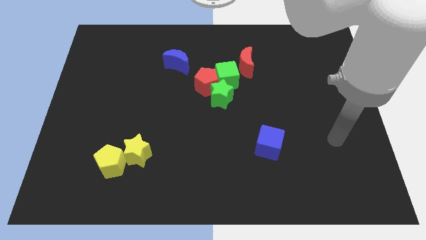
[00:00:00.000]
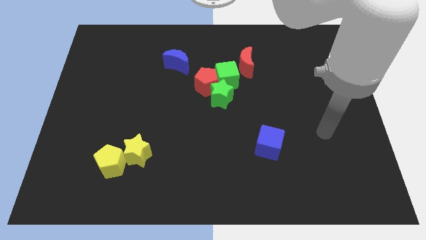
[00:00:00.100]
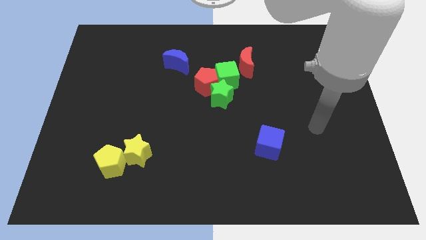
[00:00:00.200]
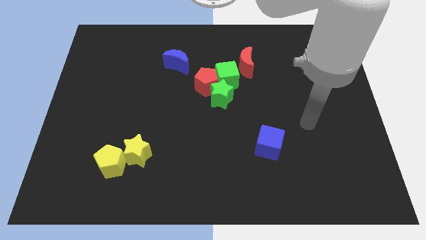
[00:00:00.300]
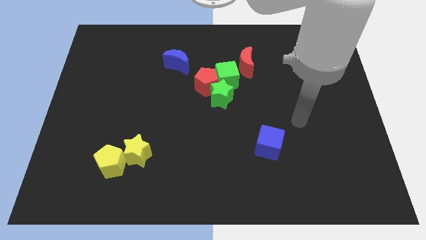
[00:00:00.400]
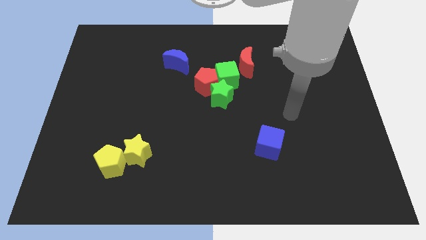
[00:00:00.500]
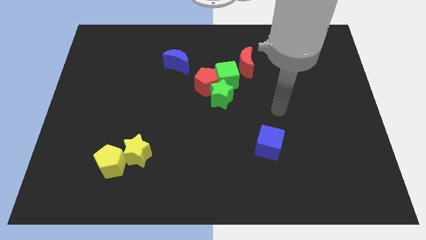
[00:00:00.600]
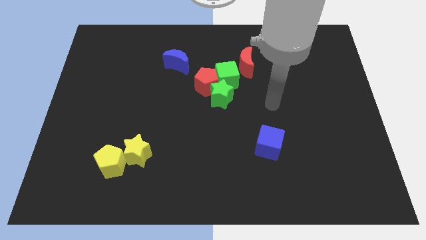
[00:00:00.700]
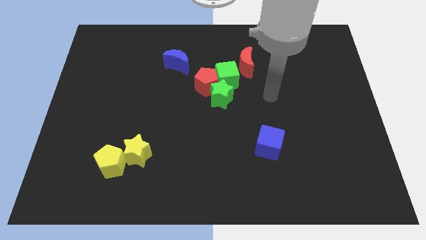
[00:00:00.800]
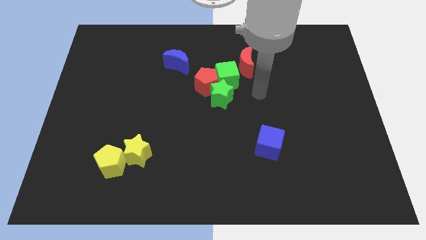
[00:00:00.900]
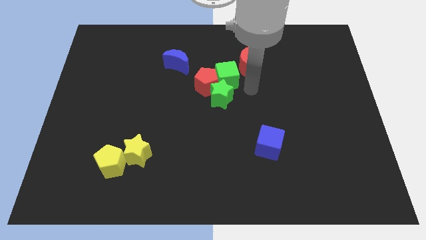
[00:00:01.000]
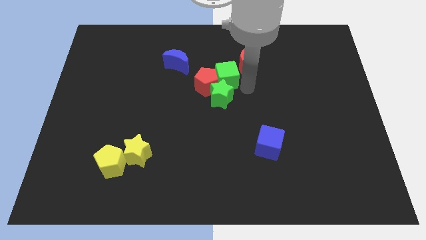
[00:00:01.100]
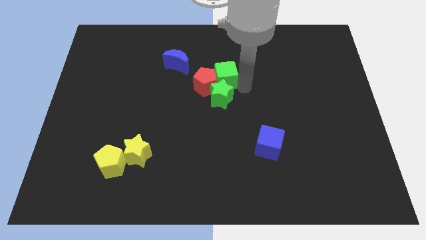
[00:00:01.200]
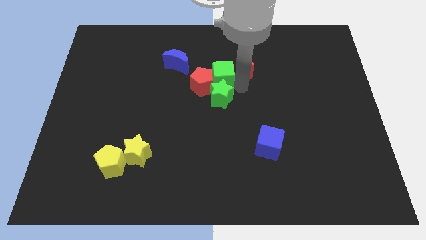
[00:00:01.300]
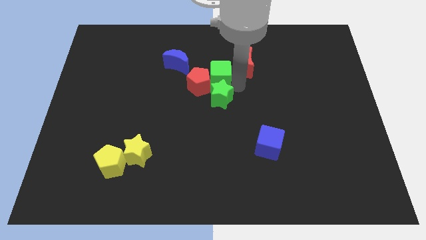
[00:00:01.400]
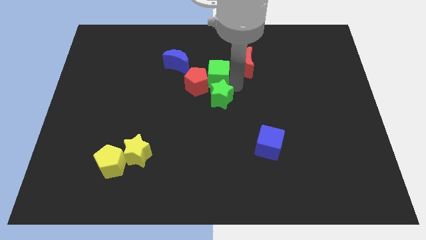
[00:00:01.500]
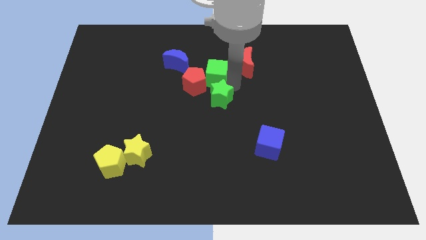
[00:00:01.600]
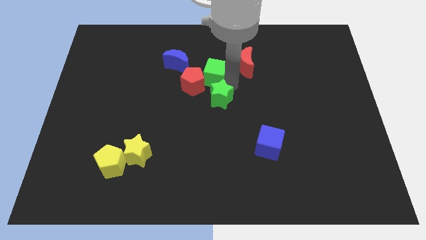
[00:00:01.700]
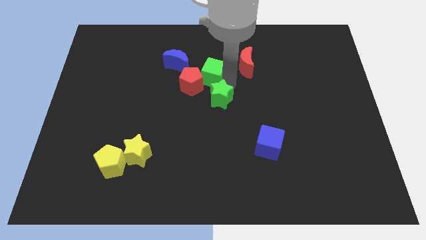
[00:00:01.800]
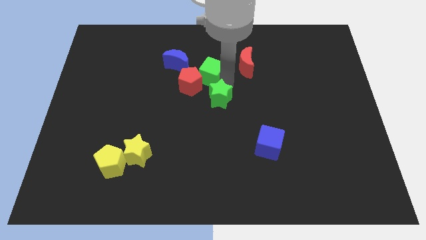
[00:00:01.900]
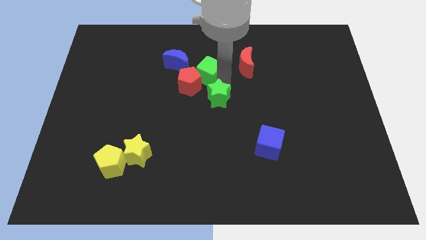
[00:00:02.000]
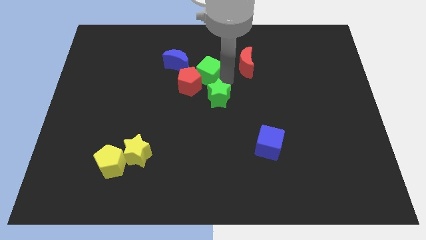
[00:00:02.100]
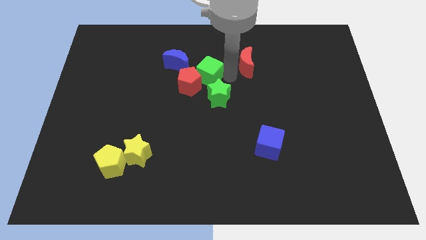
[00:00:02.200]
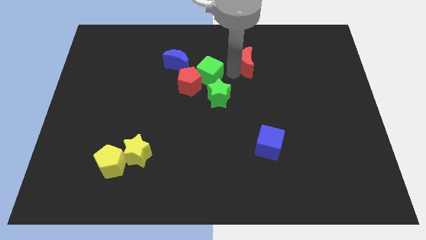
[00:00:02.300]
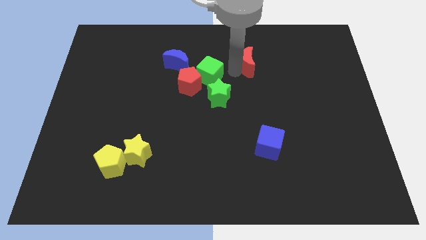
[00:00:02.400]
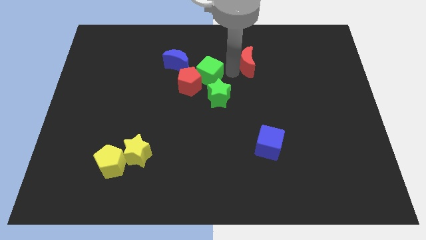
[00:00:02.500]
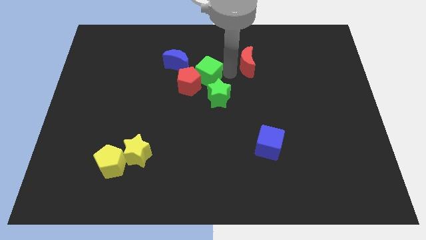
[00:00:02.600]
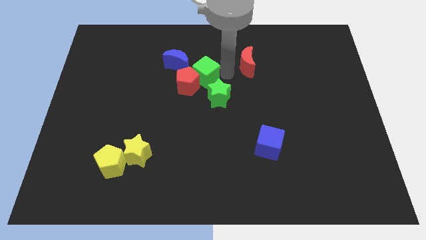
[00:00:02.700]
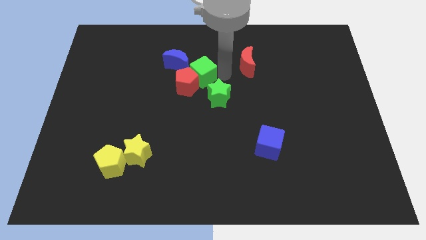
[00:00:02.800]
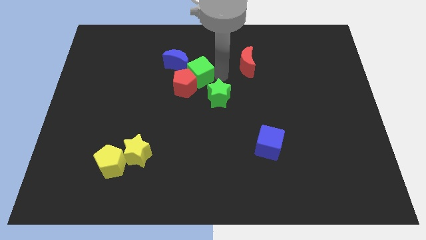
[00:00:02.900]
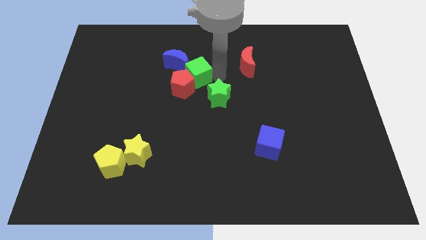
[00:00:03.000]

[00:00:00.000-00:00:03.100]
slightly slide the green cube left

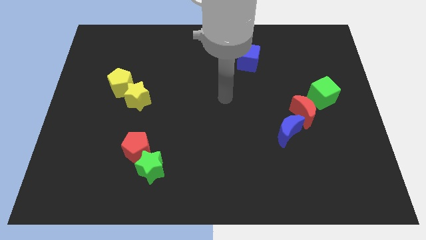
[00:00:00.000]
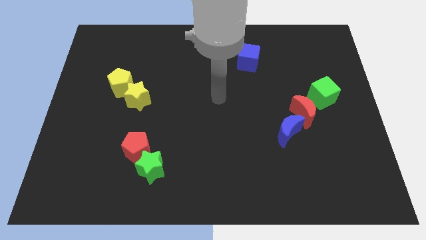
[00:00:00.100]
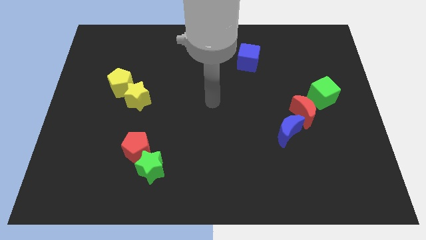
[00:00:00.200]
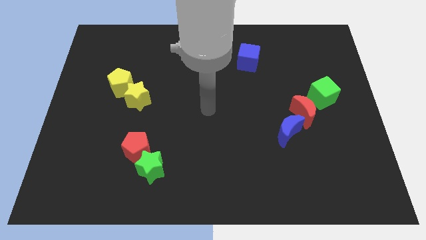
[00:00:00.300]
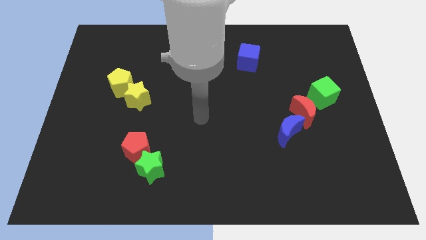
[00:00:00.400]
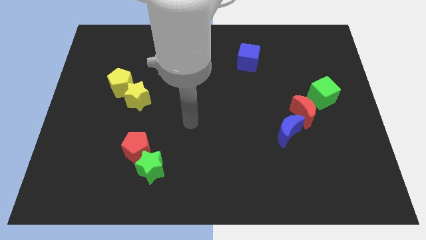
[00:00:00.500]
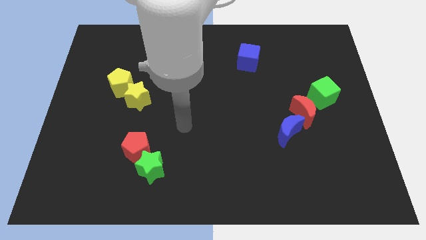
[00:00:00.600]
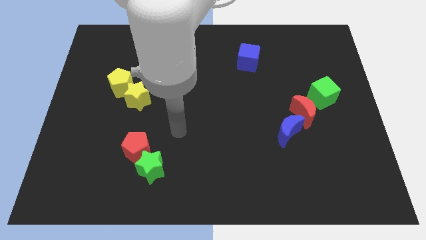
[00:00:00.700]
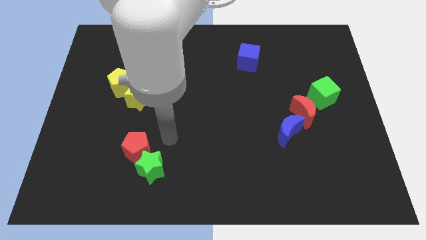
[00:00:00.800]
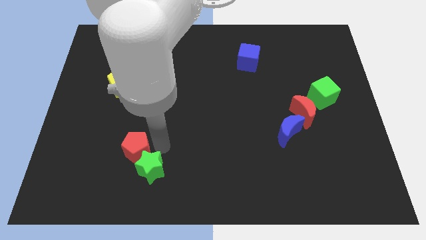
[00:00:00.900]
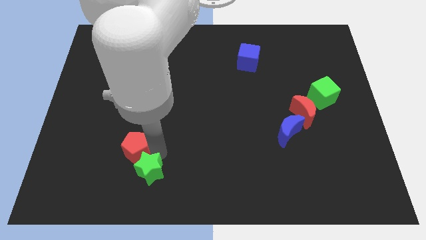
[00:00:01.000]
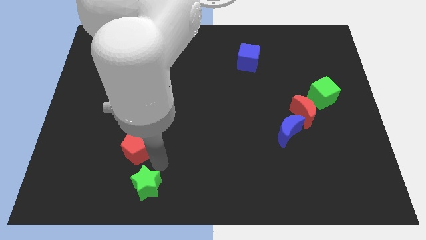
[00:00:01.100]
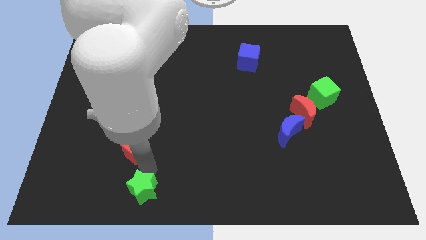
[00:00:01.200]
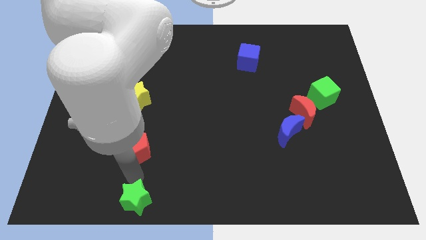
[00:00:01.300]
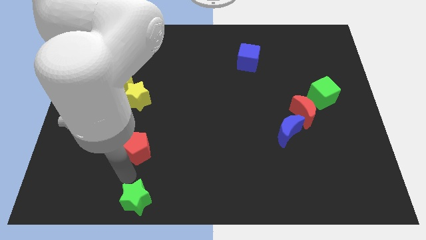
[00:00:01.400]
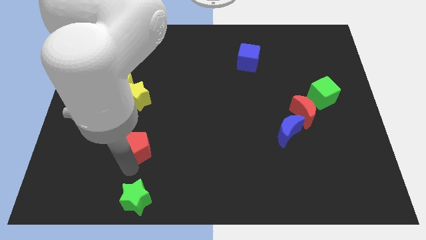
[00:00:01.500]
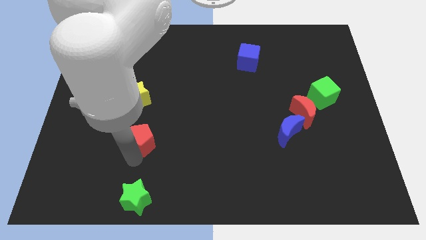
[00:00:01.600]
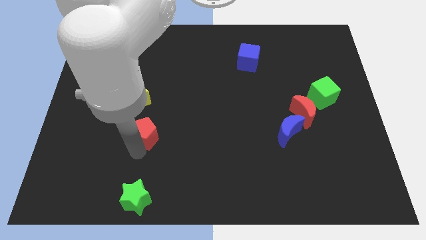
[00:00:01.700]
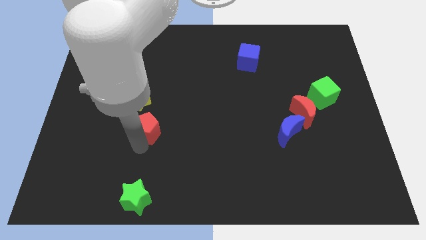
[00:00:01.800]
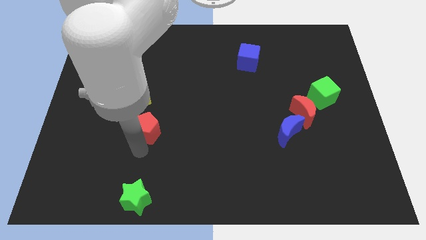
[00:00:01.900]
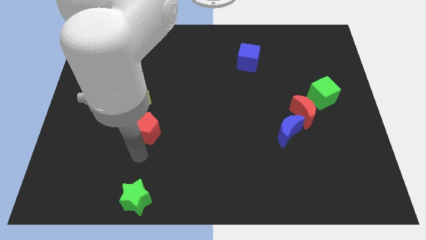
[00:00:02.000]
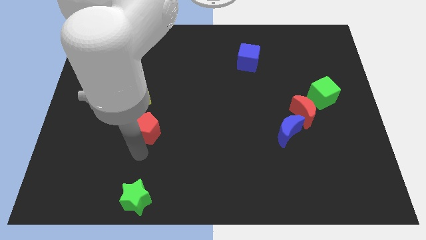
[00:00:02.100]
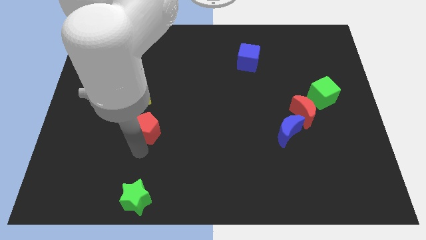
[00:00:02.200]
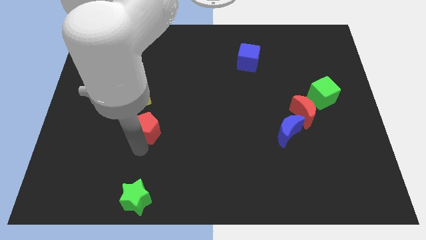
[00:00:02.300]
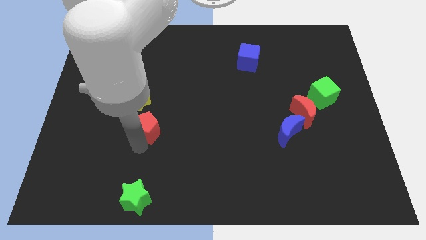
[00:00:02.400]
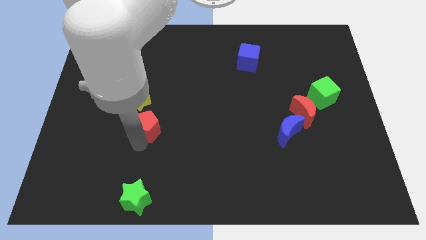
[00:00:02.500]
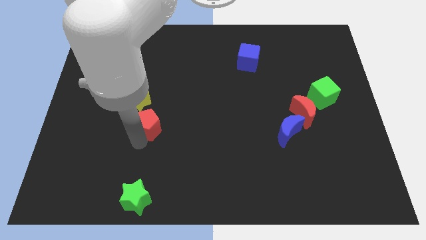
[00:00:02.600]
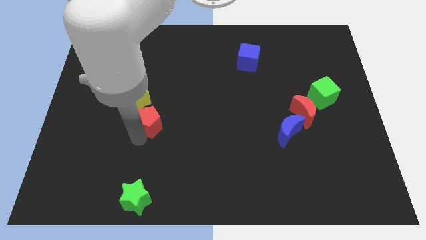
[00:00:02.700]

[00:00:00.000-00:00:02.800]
slightly move the red pentagon upwards

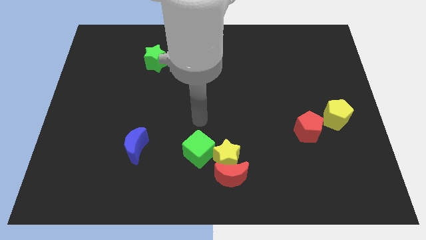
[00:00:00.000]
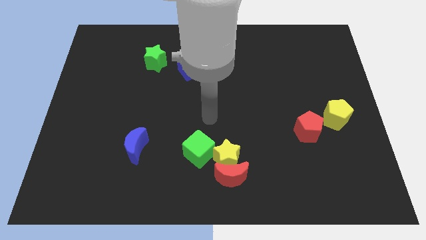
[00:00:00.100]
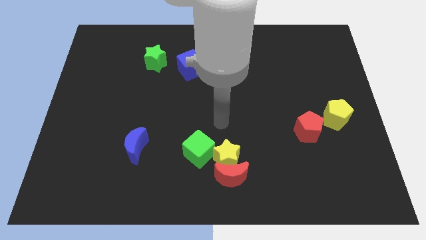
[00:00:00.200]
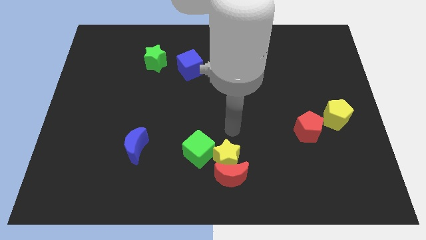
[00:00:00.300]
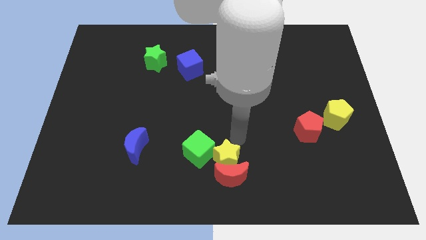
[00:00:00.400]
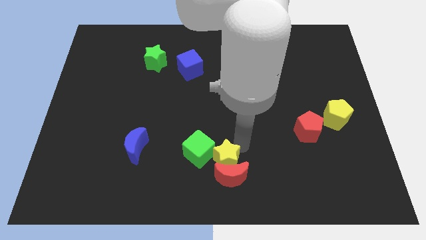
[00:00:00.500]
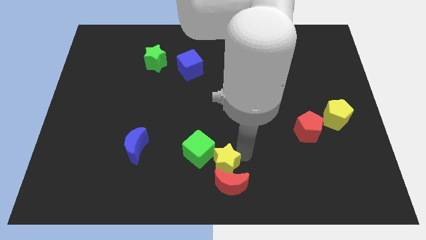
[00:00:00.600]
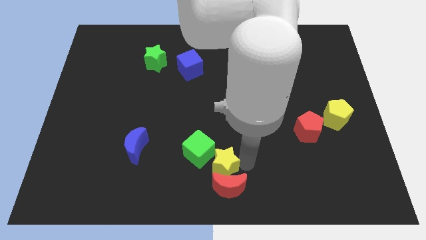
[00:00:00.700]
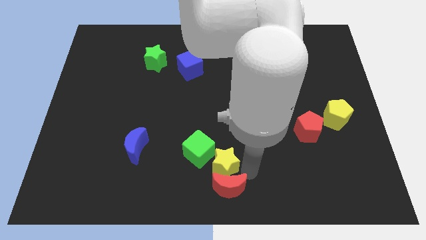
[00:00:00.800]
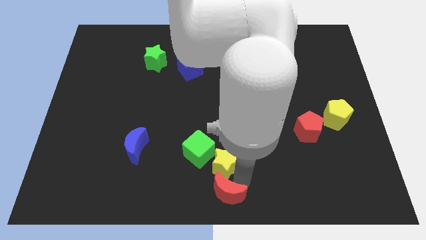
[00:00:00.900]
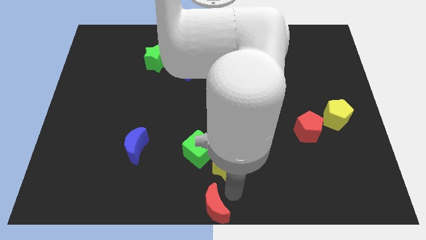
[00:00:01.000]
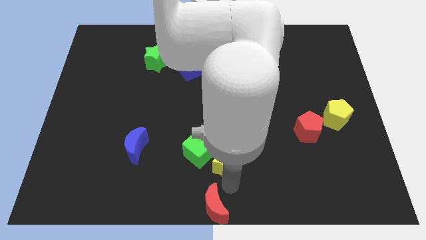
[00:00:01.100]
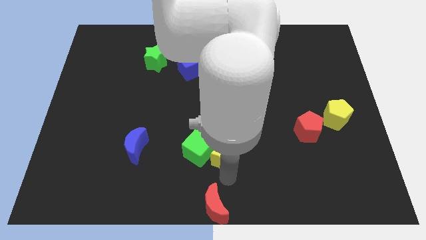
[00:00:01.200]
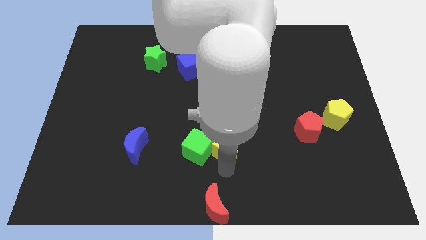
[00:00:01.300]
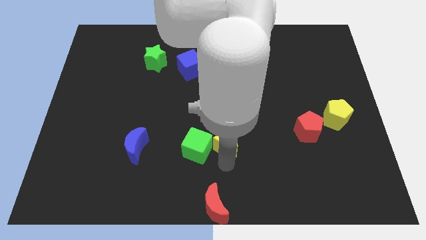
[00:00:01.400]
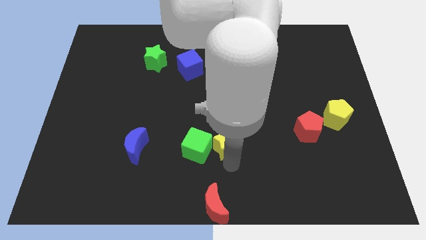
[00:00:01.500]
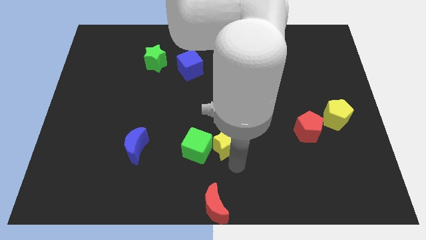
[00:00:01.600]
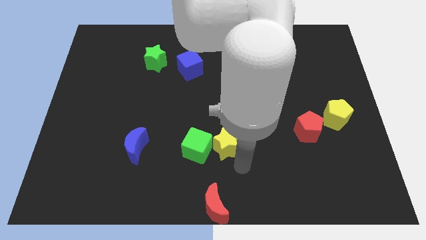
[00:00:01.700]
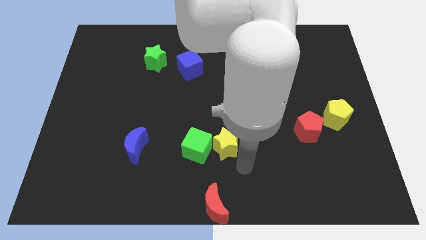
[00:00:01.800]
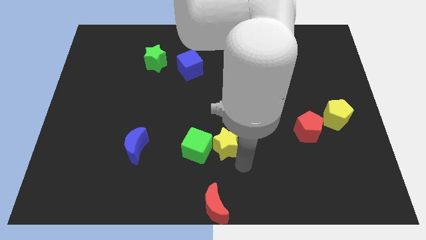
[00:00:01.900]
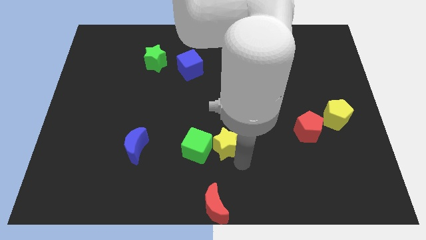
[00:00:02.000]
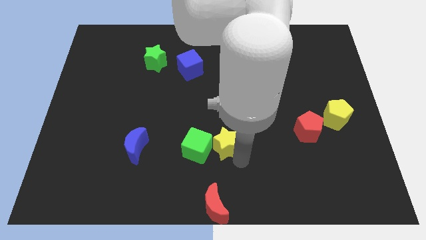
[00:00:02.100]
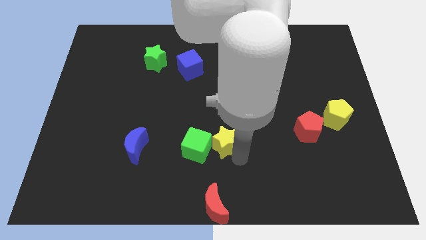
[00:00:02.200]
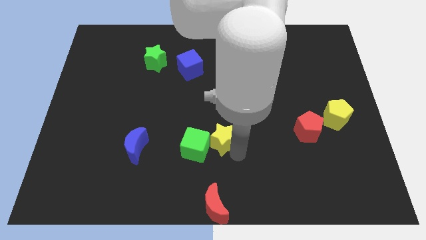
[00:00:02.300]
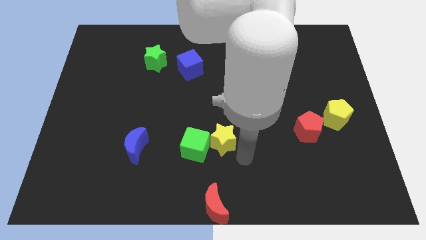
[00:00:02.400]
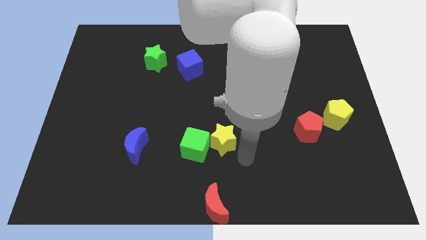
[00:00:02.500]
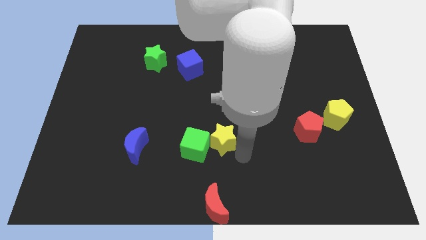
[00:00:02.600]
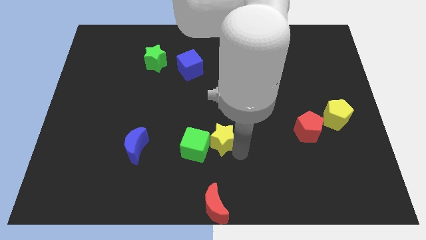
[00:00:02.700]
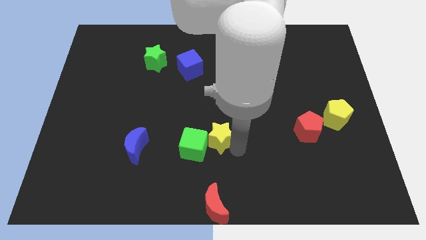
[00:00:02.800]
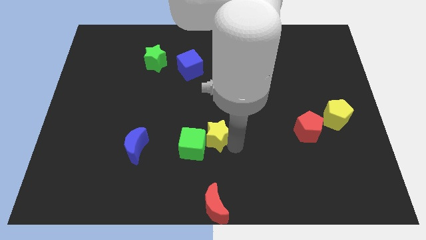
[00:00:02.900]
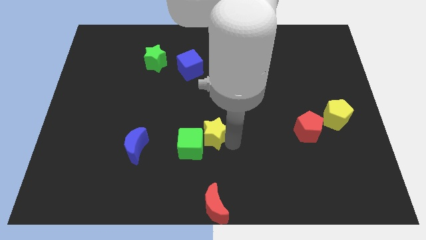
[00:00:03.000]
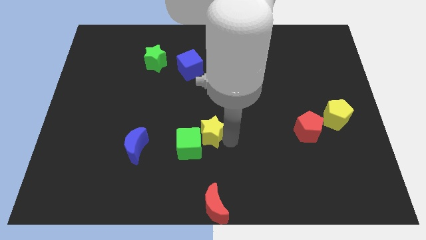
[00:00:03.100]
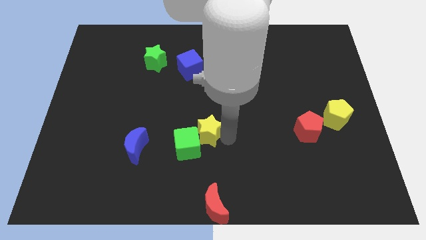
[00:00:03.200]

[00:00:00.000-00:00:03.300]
slightly move the yellow star up and left diagonally
